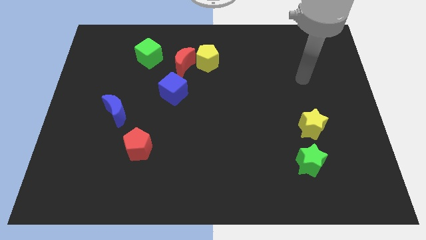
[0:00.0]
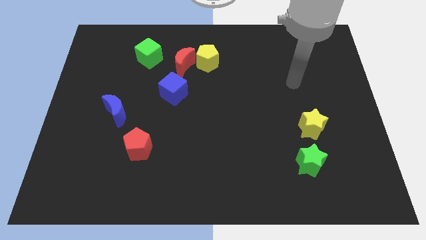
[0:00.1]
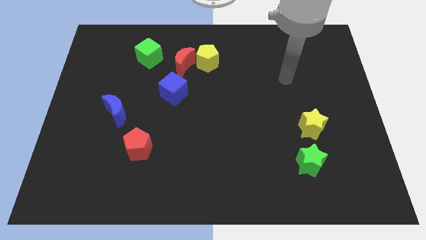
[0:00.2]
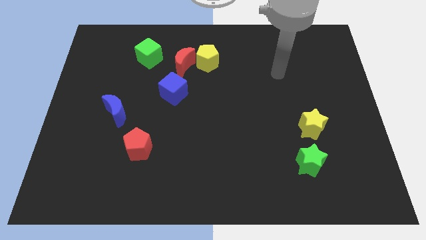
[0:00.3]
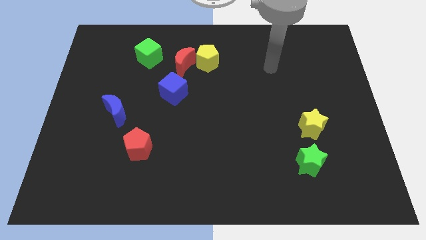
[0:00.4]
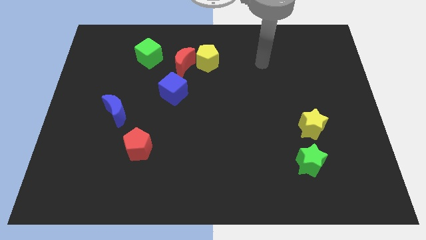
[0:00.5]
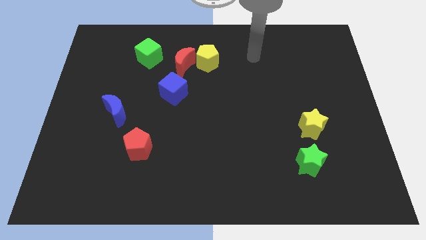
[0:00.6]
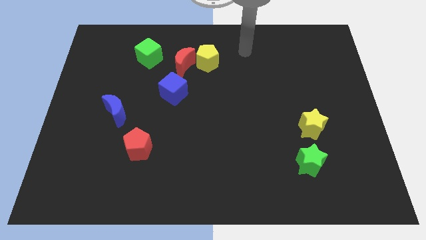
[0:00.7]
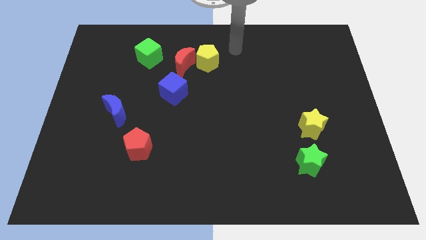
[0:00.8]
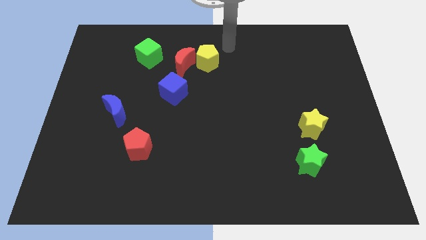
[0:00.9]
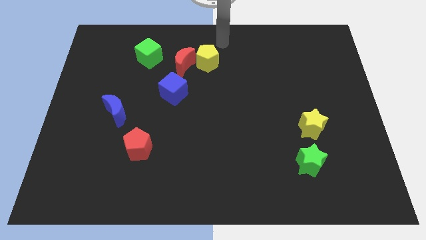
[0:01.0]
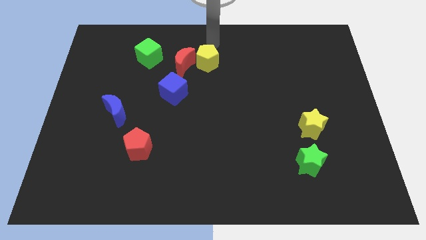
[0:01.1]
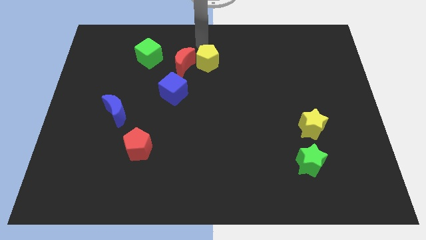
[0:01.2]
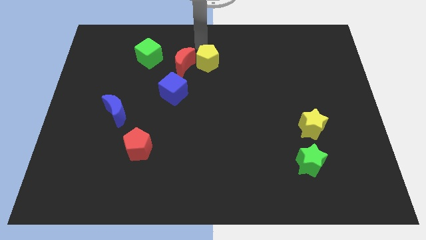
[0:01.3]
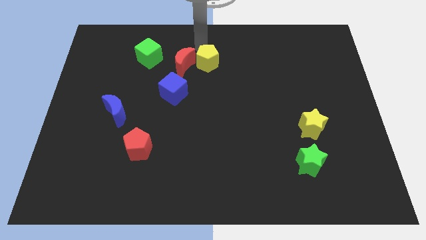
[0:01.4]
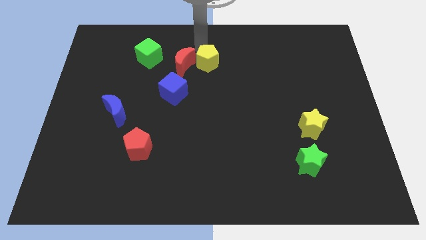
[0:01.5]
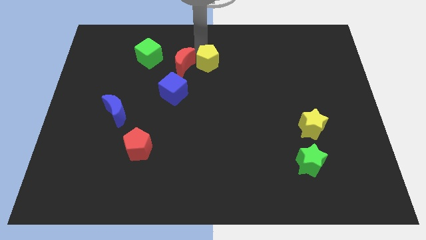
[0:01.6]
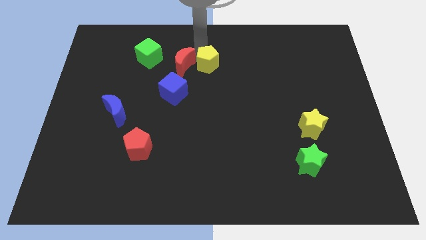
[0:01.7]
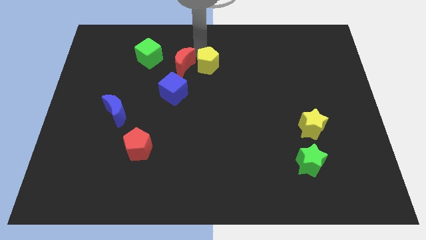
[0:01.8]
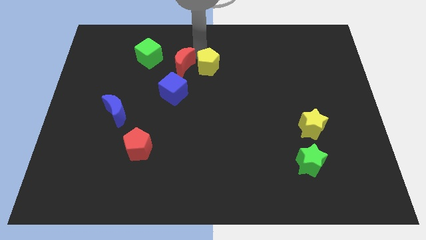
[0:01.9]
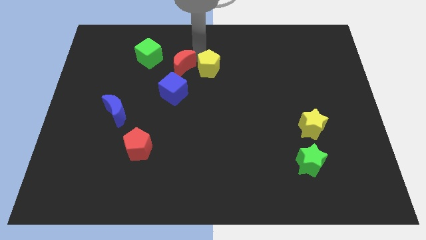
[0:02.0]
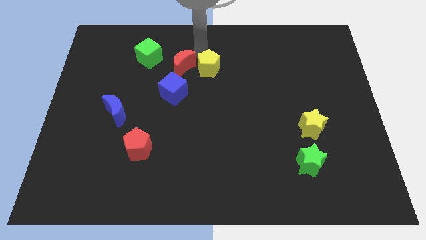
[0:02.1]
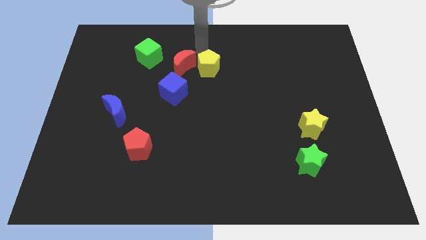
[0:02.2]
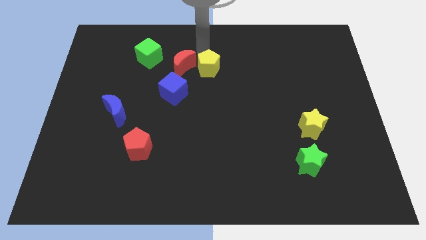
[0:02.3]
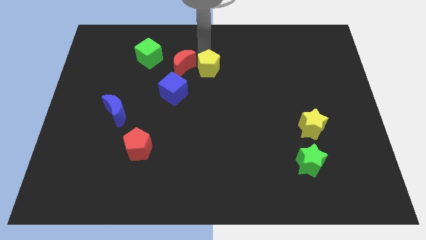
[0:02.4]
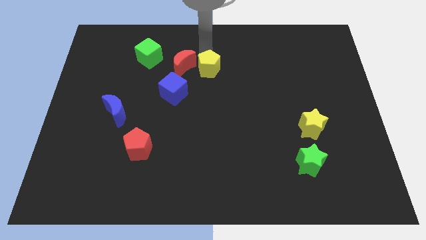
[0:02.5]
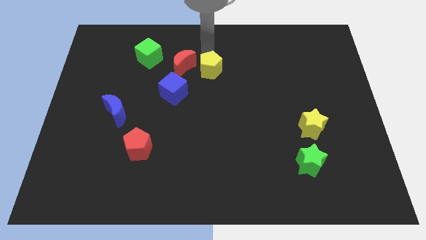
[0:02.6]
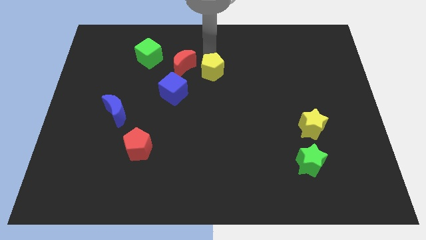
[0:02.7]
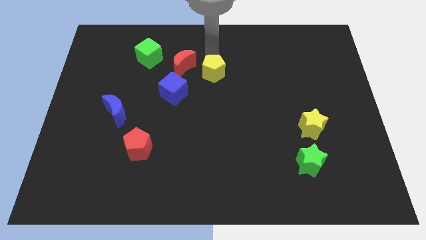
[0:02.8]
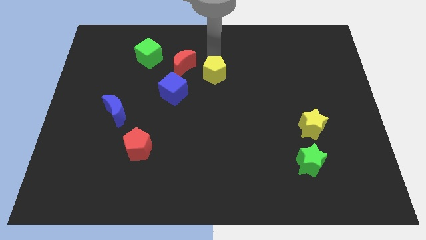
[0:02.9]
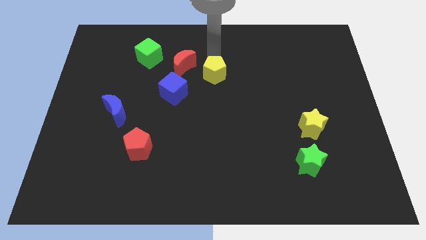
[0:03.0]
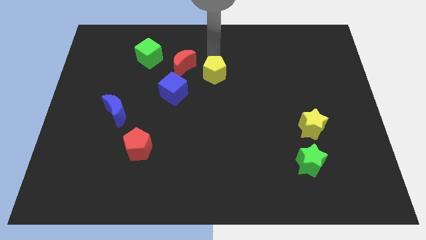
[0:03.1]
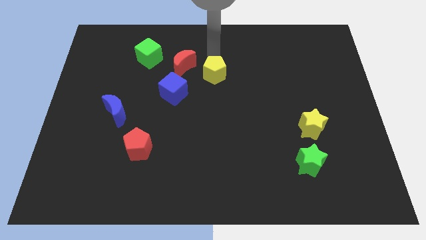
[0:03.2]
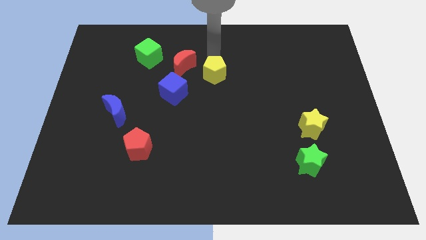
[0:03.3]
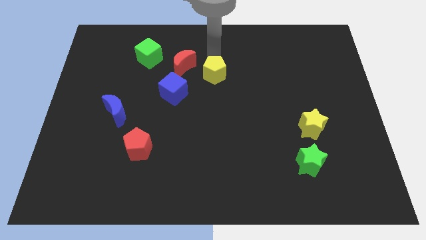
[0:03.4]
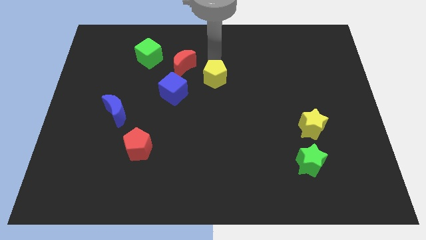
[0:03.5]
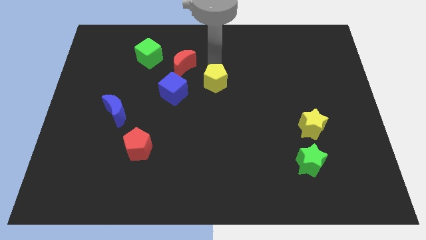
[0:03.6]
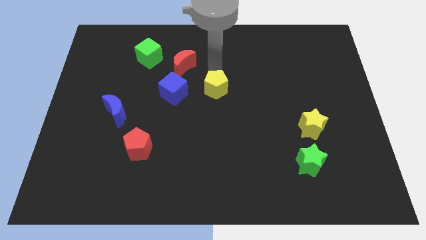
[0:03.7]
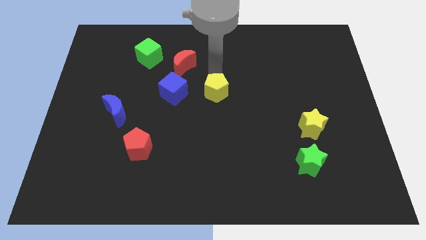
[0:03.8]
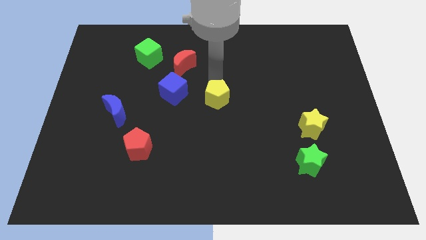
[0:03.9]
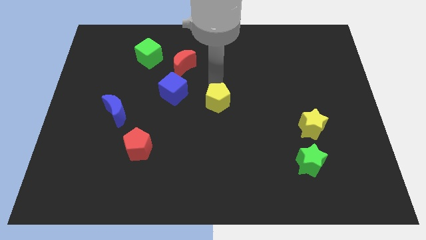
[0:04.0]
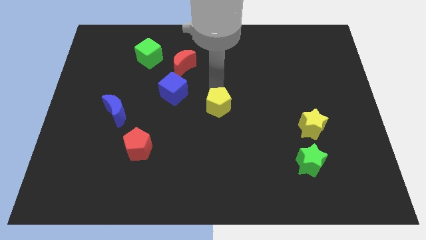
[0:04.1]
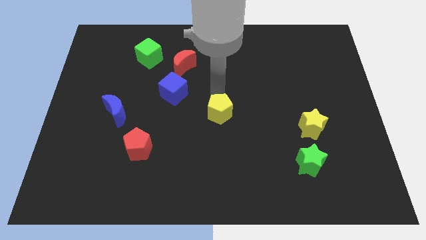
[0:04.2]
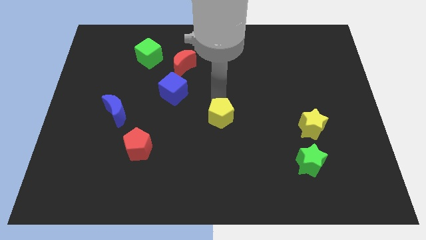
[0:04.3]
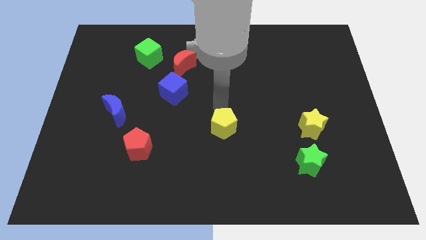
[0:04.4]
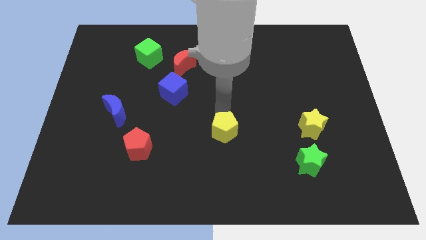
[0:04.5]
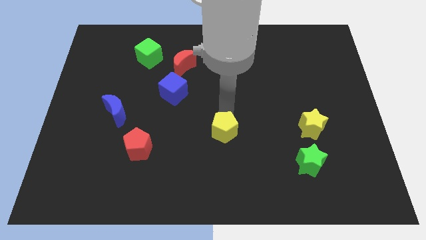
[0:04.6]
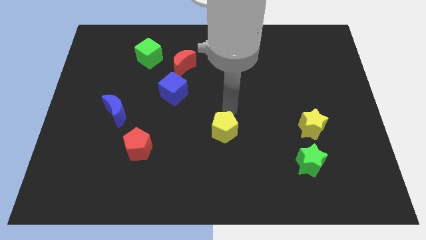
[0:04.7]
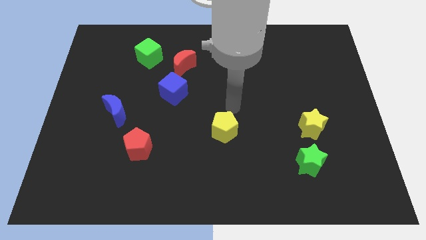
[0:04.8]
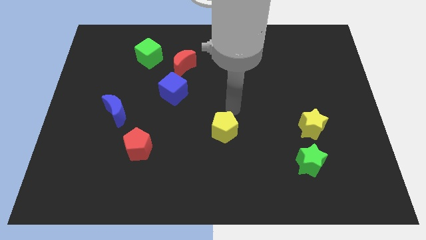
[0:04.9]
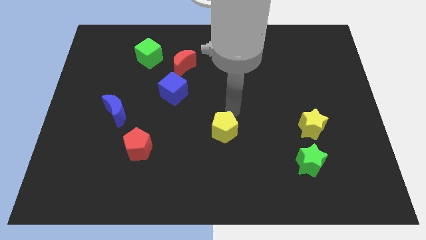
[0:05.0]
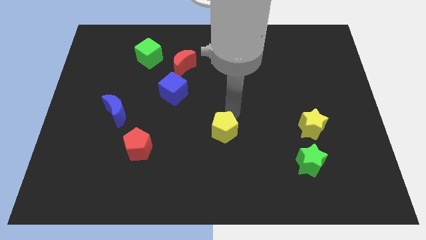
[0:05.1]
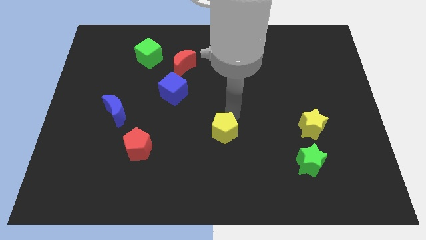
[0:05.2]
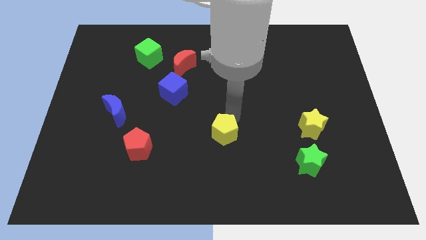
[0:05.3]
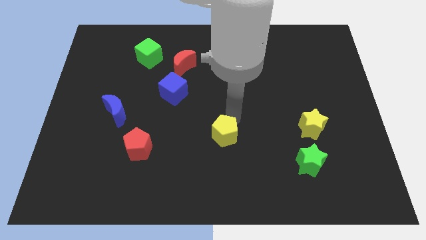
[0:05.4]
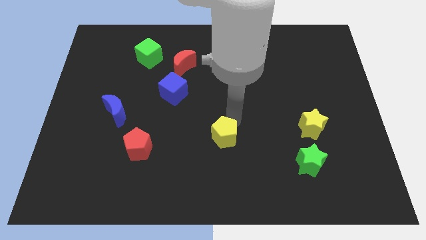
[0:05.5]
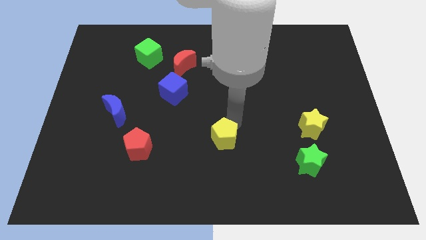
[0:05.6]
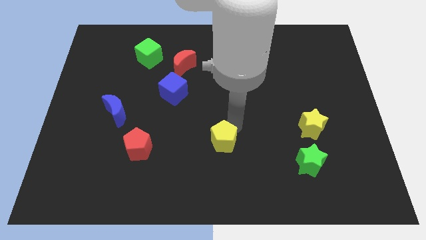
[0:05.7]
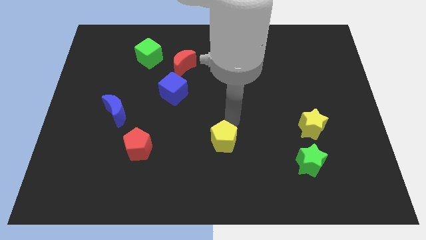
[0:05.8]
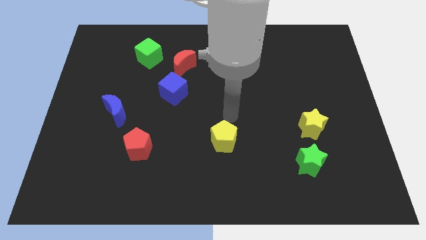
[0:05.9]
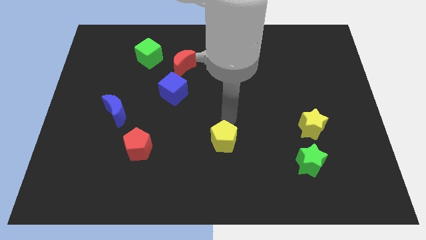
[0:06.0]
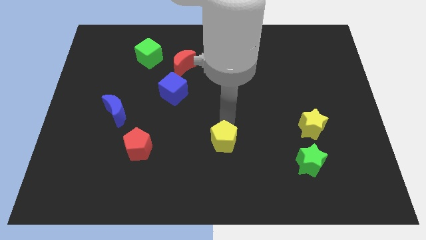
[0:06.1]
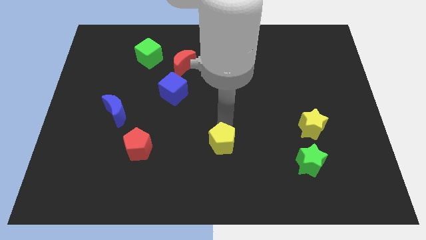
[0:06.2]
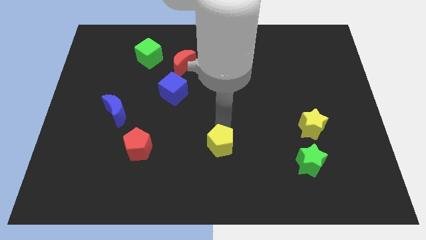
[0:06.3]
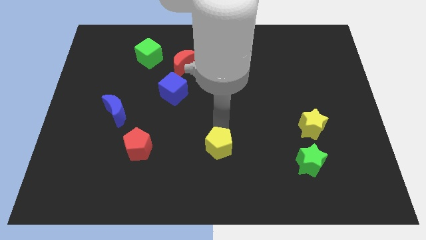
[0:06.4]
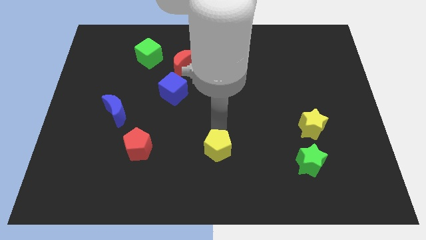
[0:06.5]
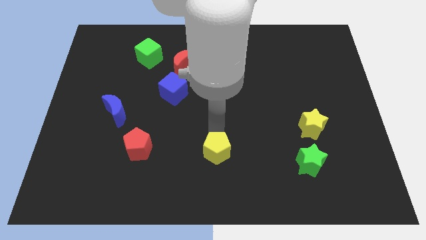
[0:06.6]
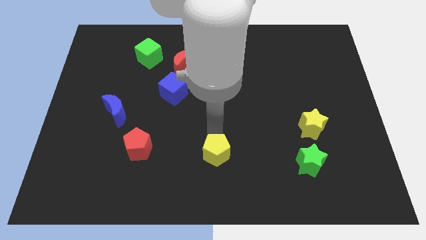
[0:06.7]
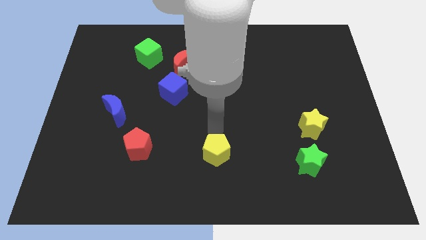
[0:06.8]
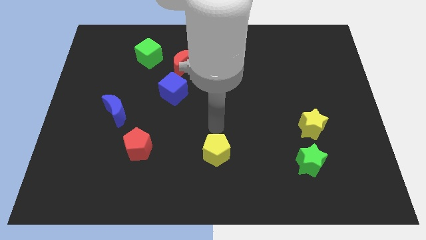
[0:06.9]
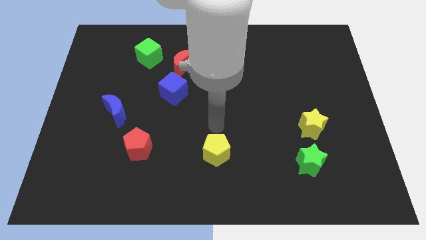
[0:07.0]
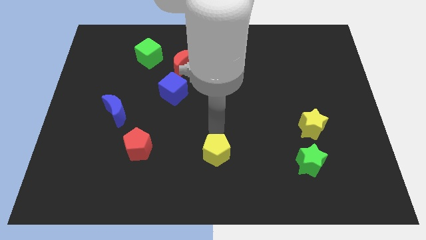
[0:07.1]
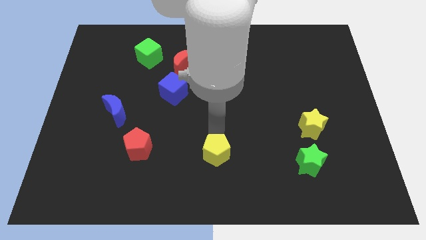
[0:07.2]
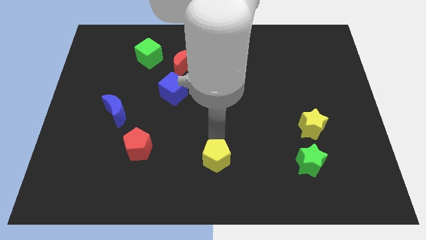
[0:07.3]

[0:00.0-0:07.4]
push the yellow pentagon to the bottom side
